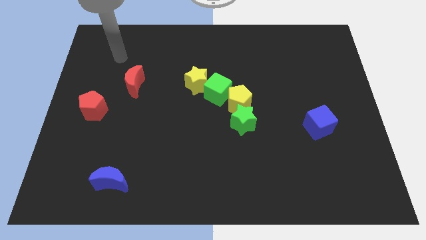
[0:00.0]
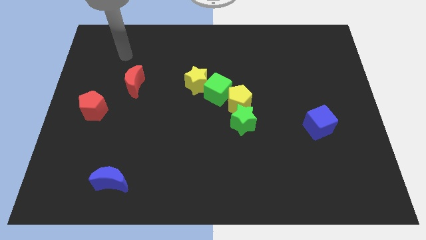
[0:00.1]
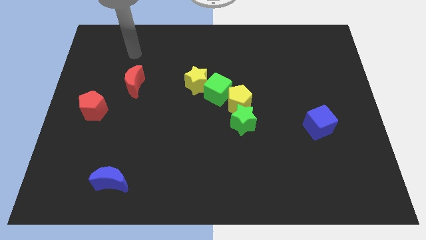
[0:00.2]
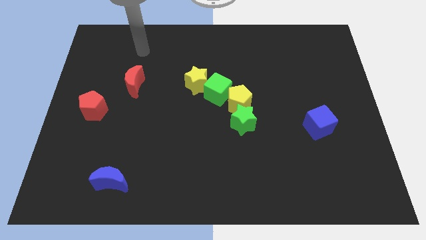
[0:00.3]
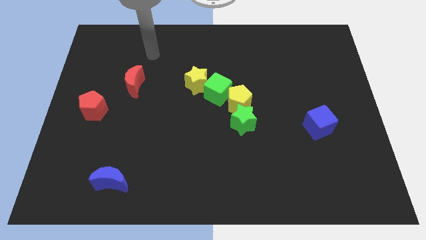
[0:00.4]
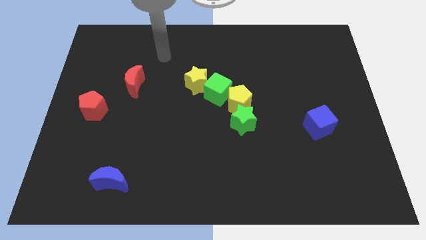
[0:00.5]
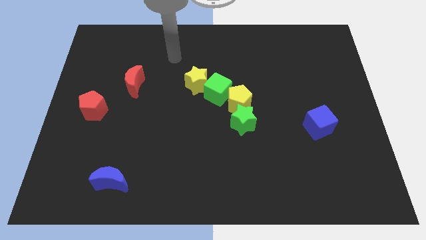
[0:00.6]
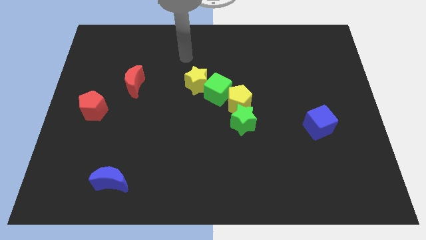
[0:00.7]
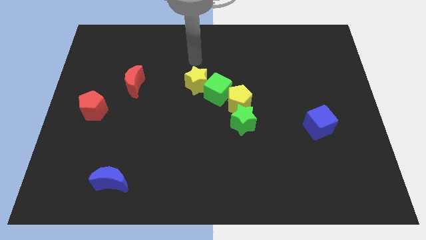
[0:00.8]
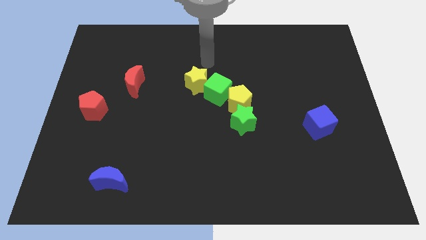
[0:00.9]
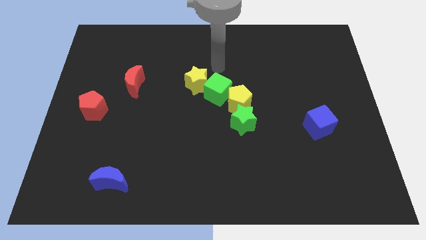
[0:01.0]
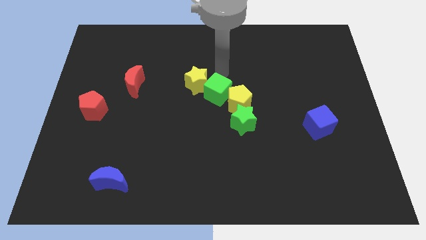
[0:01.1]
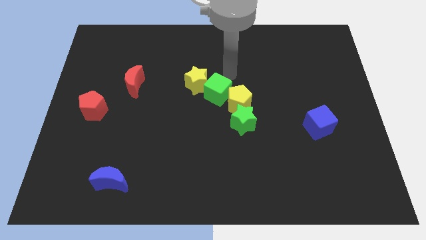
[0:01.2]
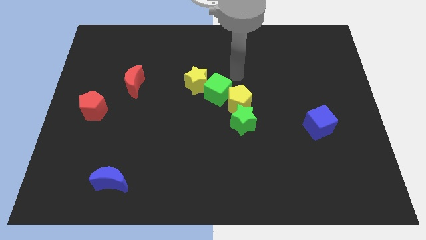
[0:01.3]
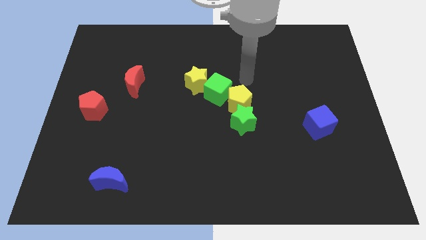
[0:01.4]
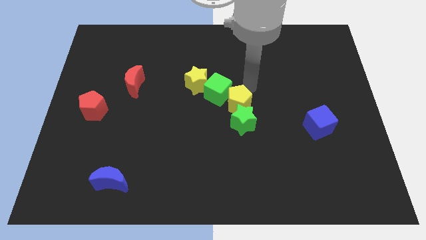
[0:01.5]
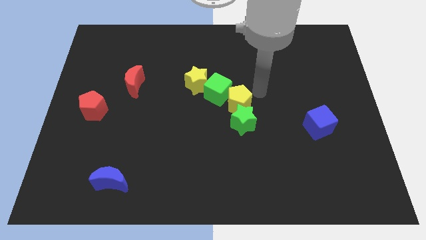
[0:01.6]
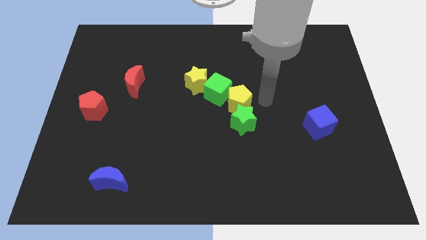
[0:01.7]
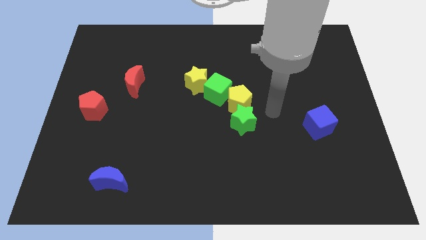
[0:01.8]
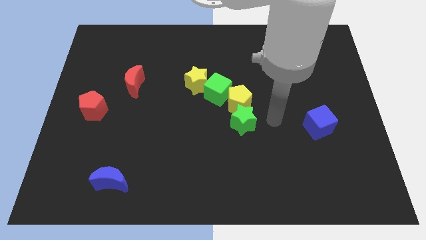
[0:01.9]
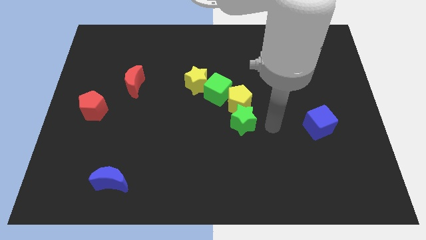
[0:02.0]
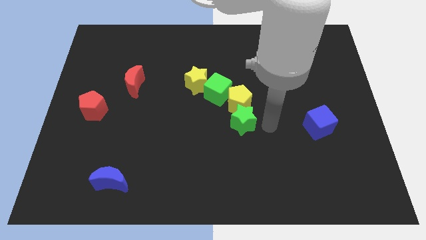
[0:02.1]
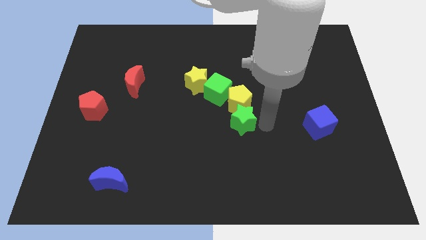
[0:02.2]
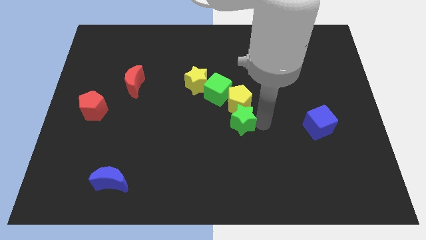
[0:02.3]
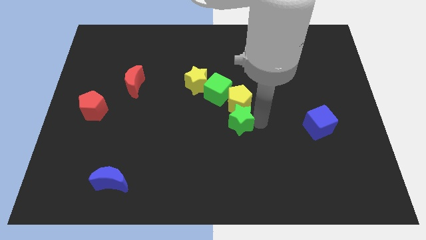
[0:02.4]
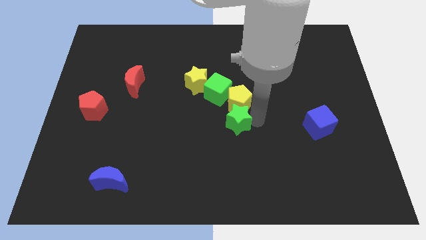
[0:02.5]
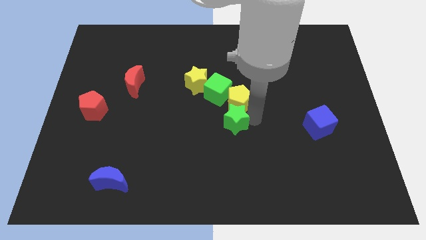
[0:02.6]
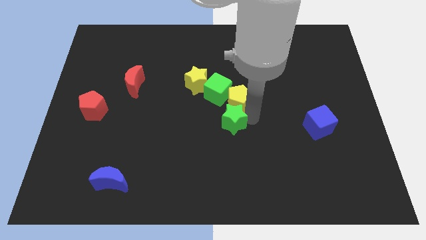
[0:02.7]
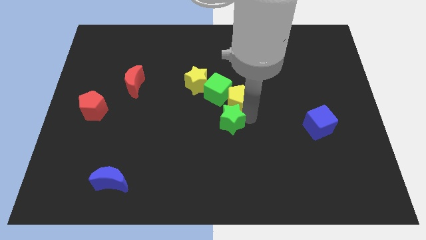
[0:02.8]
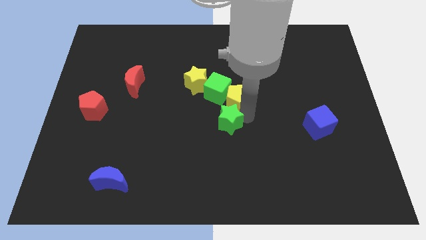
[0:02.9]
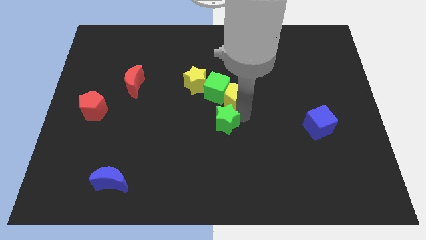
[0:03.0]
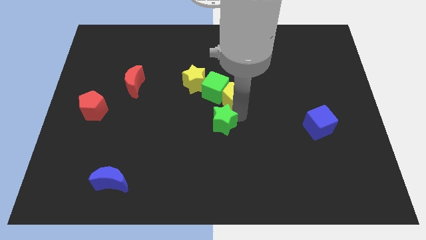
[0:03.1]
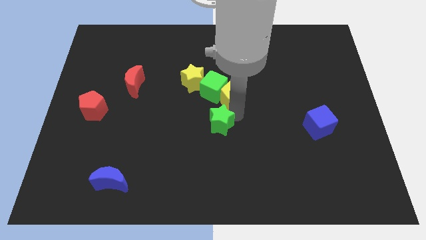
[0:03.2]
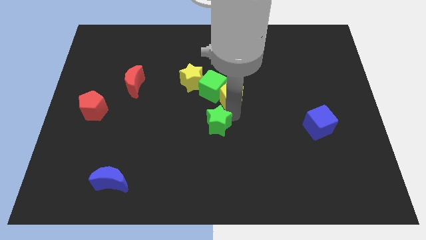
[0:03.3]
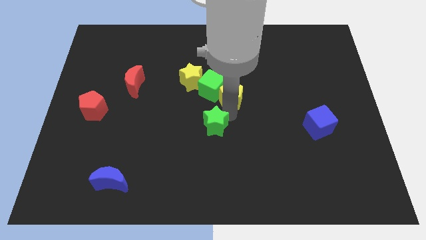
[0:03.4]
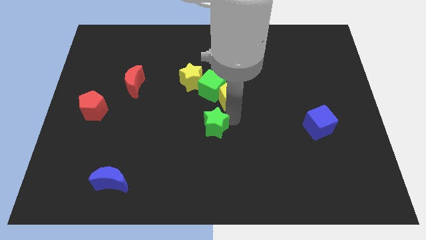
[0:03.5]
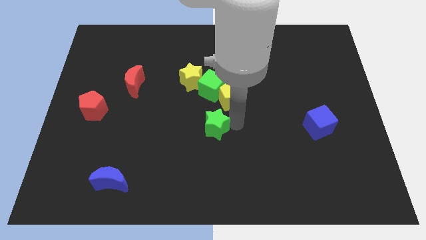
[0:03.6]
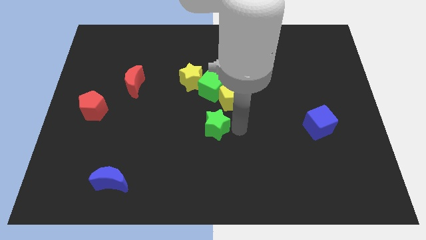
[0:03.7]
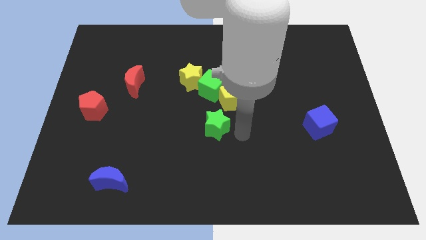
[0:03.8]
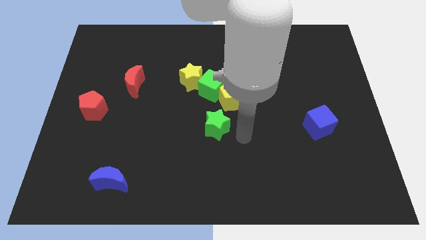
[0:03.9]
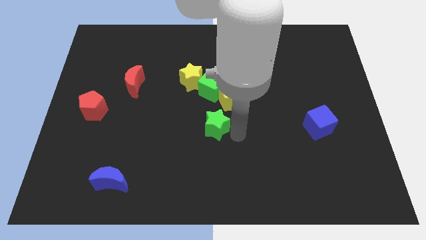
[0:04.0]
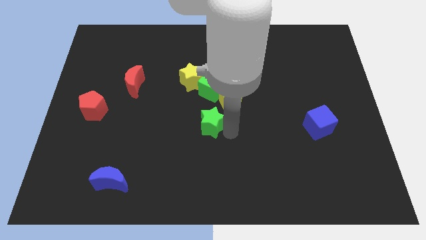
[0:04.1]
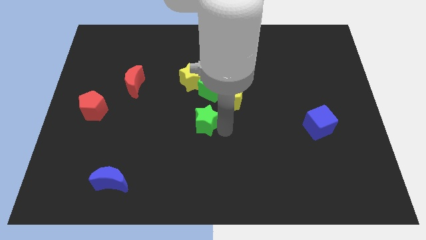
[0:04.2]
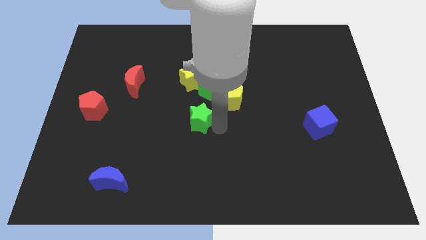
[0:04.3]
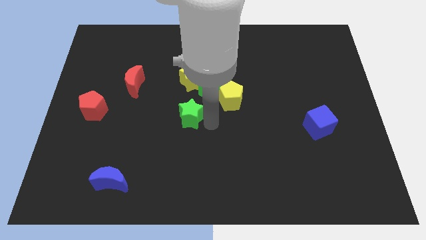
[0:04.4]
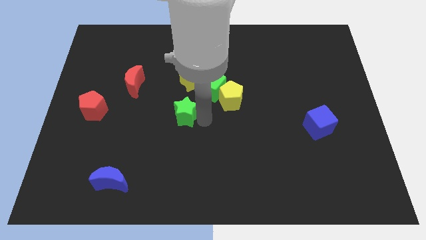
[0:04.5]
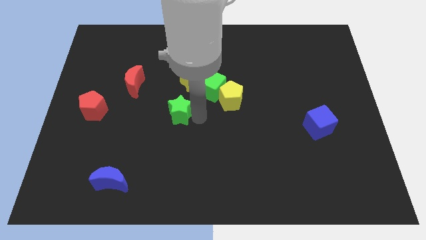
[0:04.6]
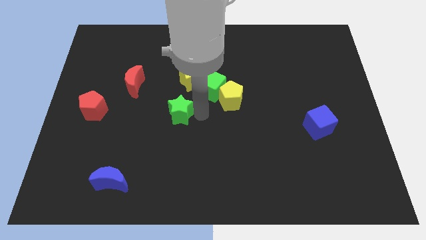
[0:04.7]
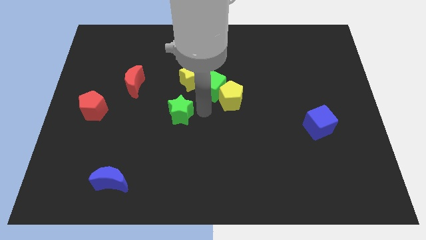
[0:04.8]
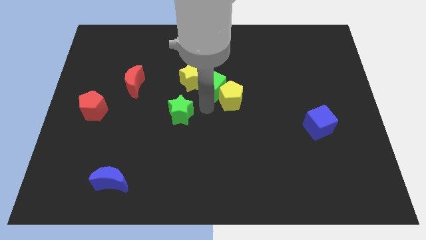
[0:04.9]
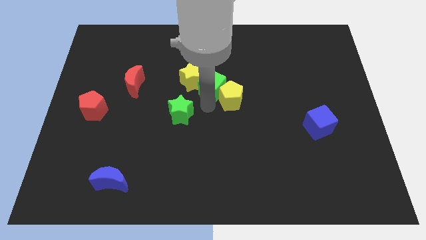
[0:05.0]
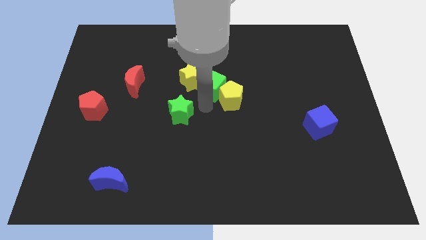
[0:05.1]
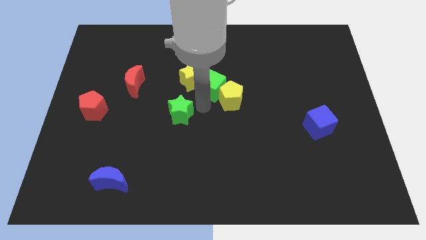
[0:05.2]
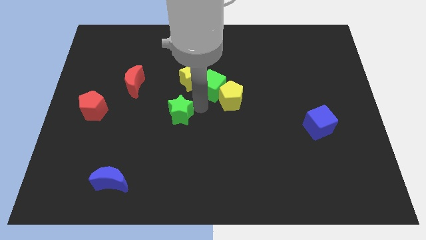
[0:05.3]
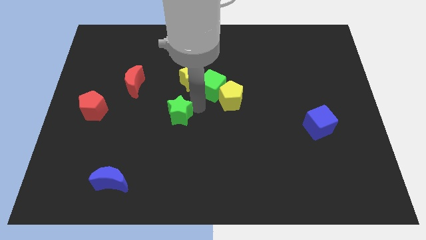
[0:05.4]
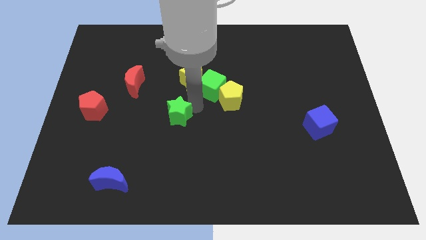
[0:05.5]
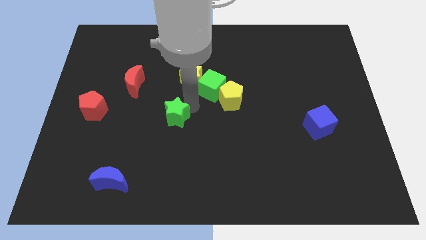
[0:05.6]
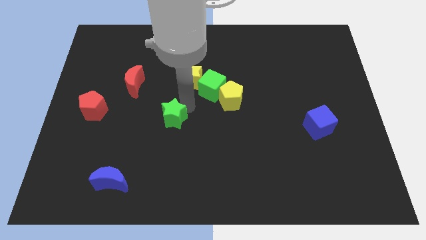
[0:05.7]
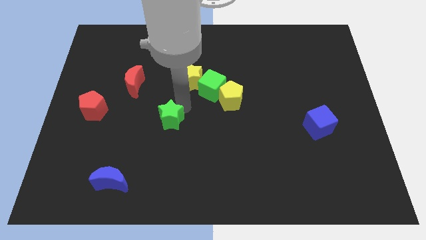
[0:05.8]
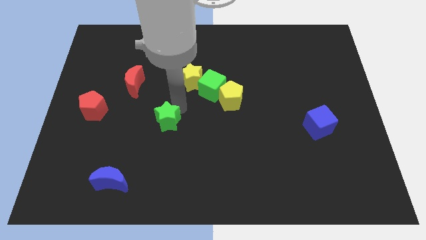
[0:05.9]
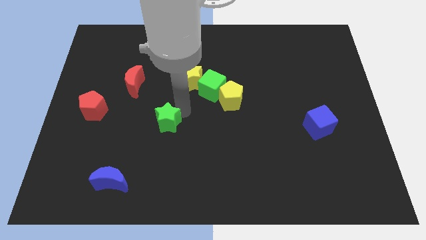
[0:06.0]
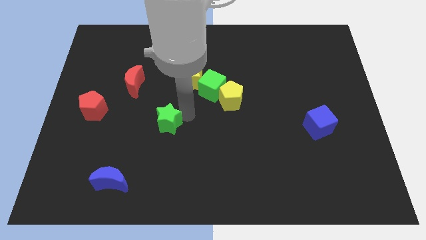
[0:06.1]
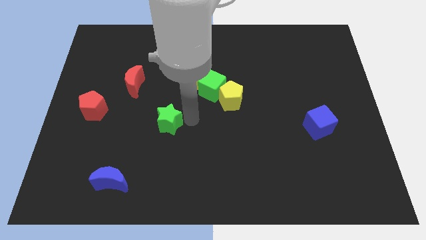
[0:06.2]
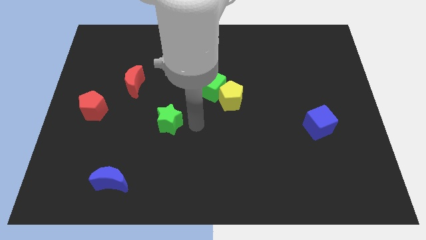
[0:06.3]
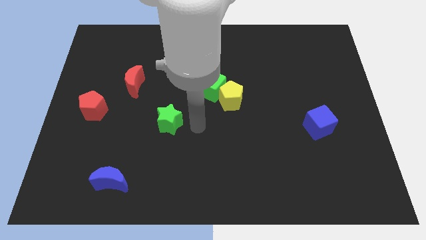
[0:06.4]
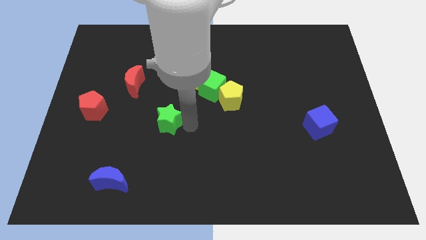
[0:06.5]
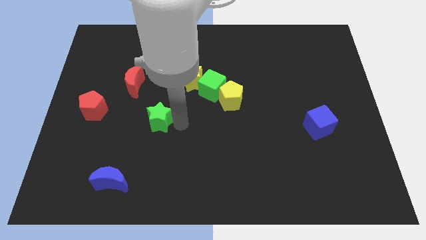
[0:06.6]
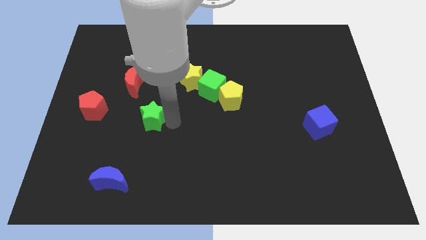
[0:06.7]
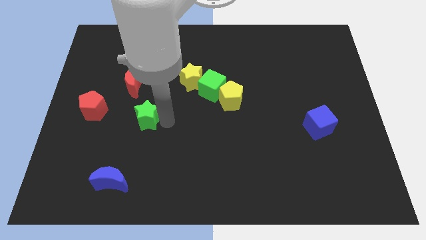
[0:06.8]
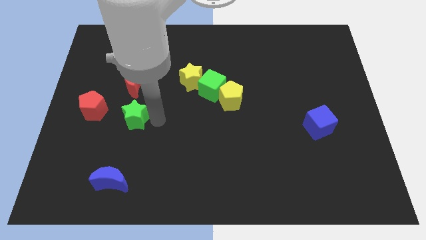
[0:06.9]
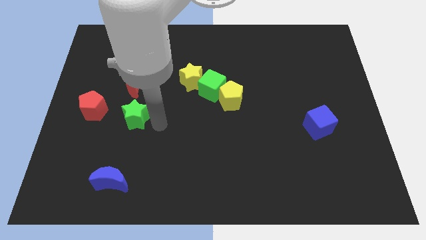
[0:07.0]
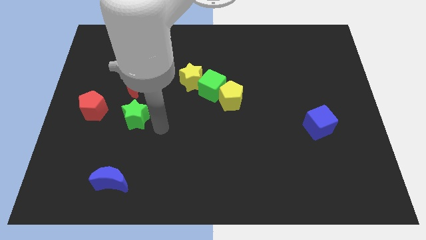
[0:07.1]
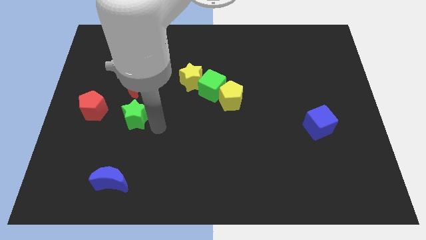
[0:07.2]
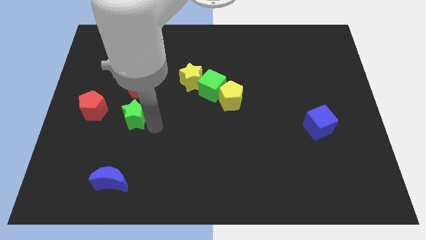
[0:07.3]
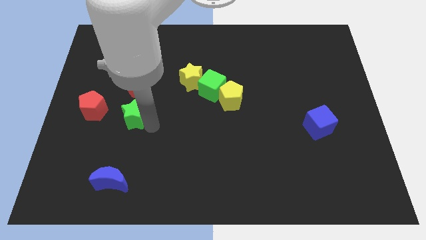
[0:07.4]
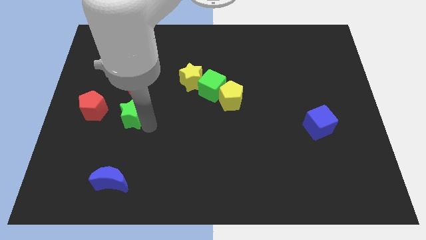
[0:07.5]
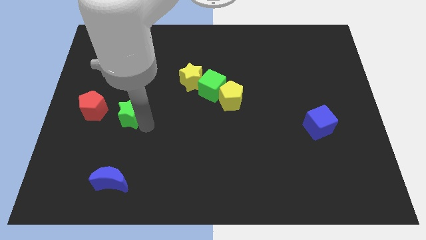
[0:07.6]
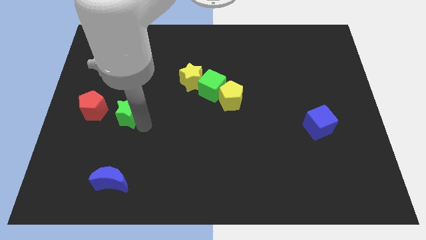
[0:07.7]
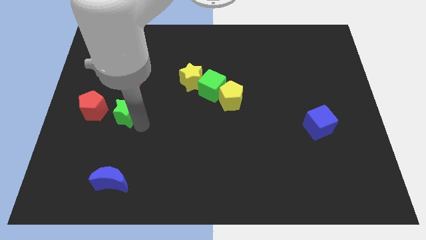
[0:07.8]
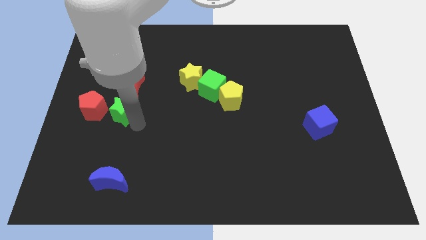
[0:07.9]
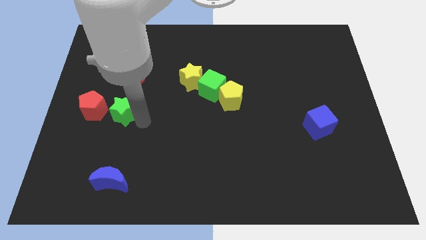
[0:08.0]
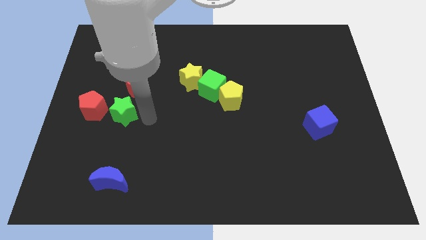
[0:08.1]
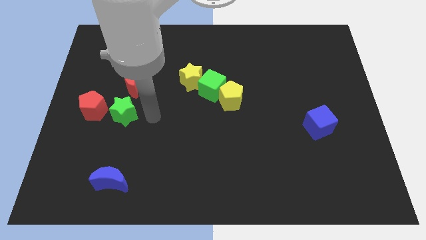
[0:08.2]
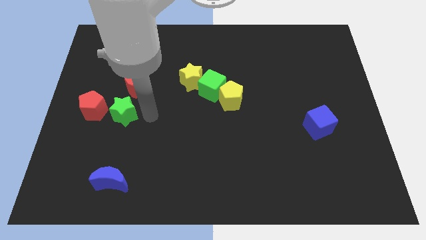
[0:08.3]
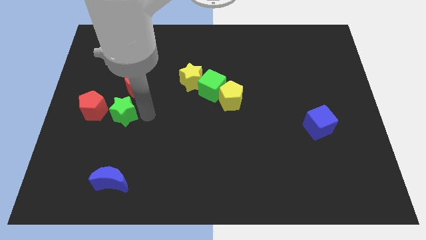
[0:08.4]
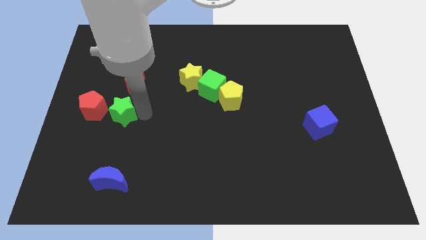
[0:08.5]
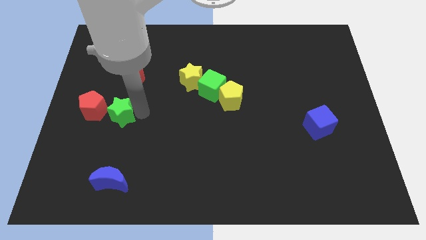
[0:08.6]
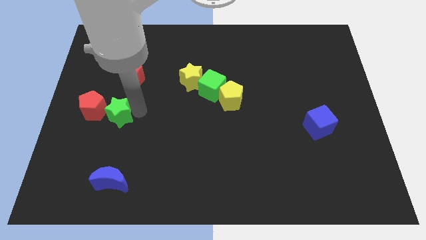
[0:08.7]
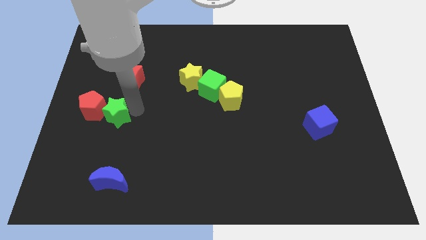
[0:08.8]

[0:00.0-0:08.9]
move the green star to the red pentagon
